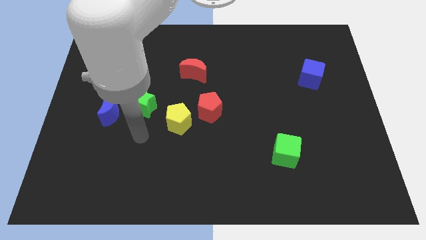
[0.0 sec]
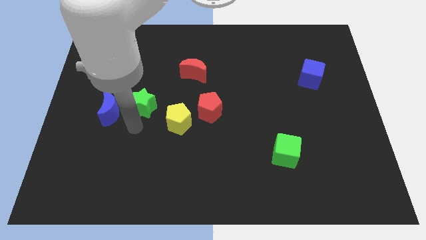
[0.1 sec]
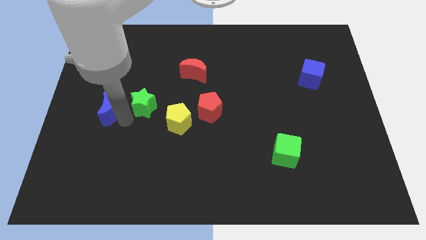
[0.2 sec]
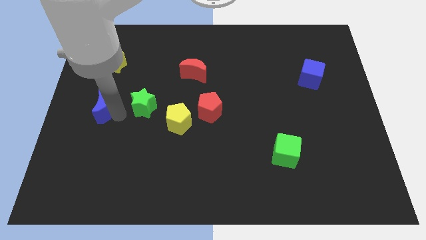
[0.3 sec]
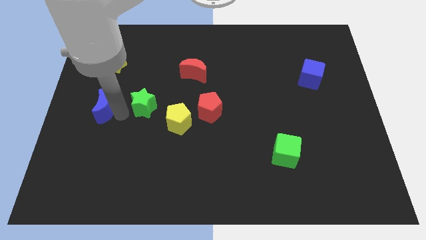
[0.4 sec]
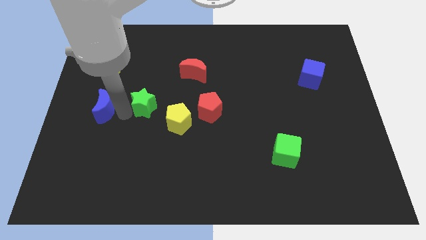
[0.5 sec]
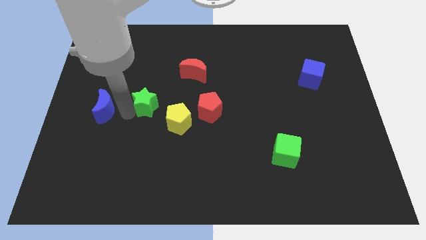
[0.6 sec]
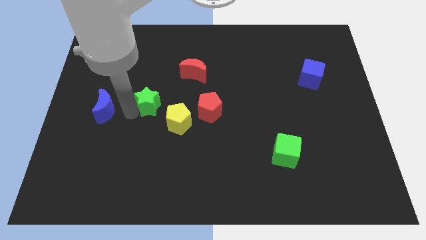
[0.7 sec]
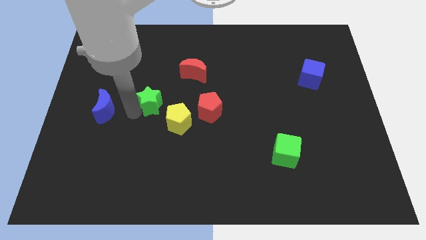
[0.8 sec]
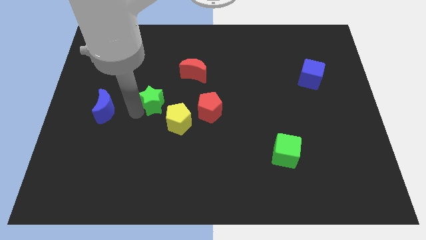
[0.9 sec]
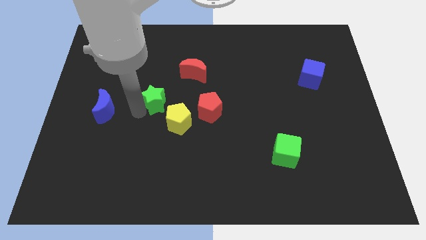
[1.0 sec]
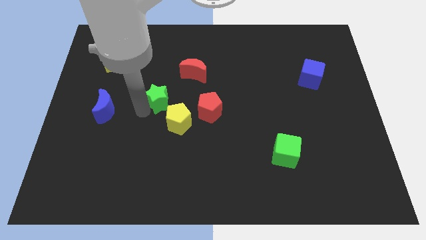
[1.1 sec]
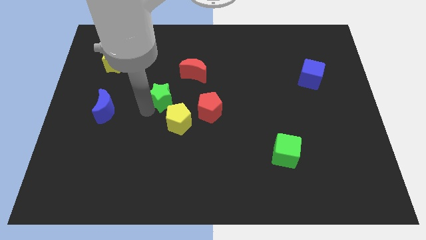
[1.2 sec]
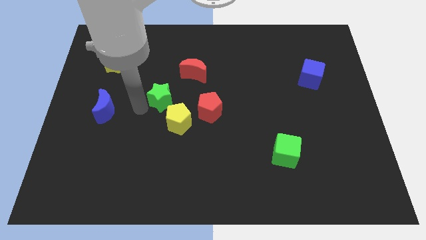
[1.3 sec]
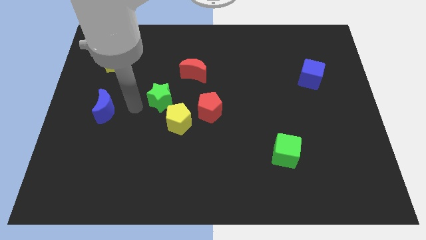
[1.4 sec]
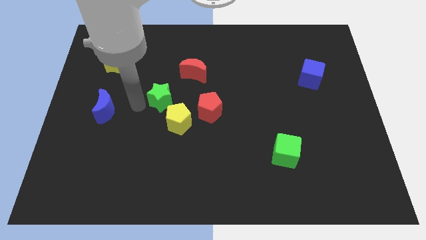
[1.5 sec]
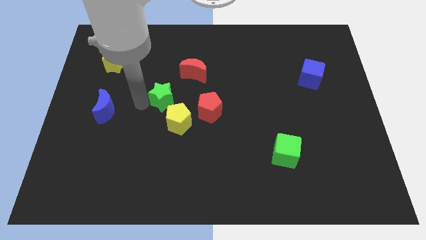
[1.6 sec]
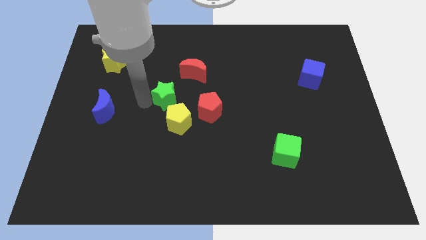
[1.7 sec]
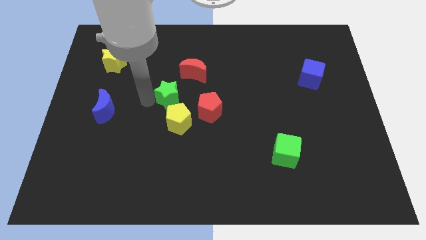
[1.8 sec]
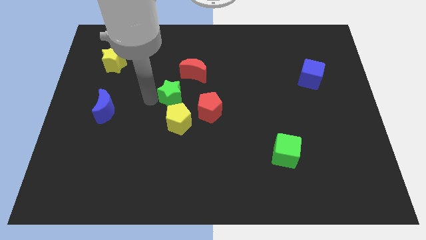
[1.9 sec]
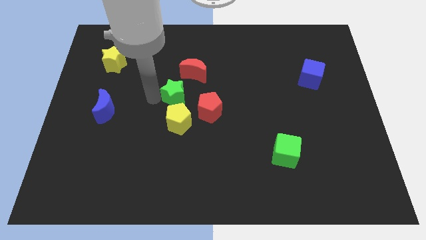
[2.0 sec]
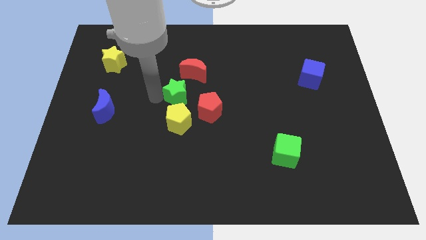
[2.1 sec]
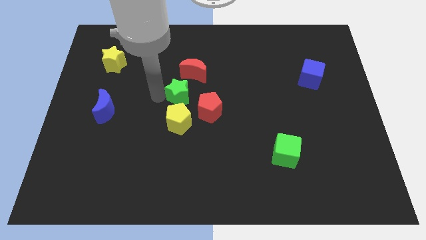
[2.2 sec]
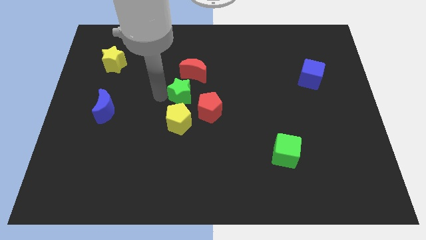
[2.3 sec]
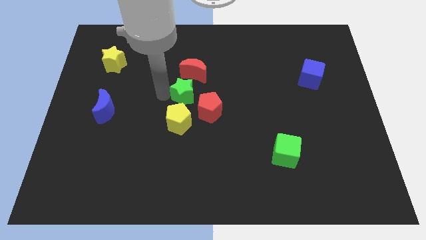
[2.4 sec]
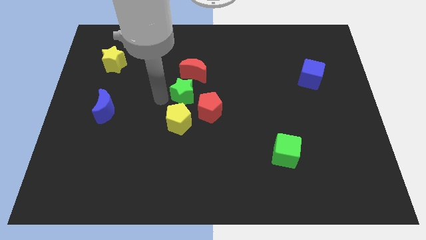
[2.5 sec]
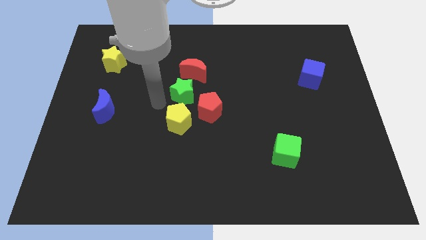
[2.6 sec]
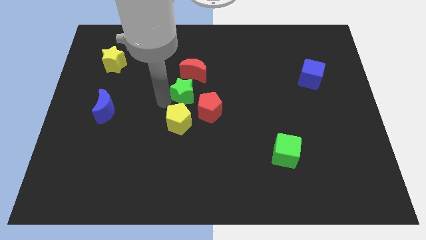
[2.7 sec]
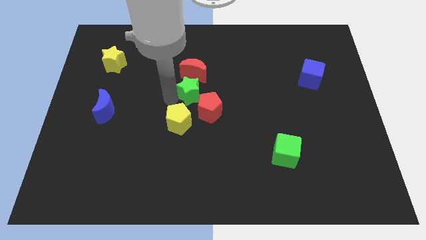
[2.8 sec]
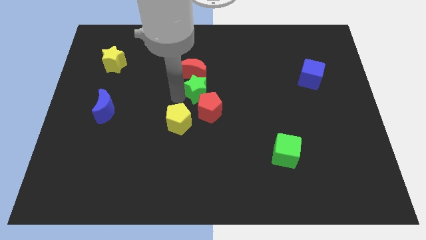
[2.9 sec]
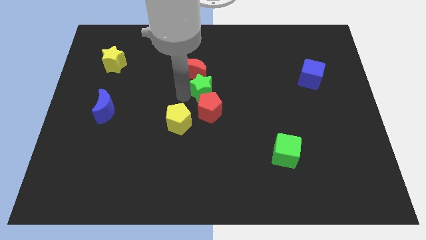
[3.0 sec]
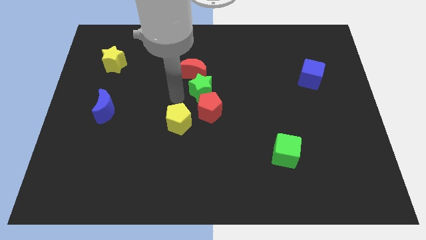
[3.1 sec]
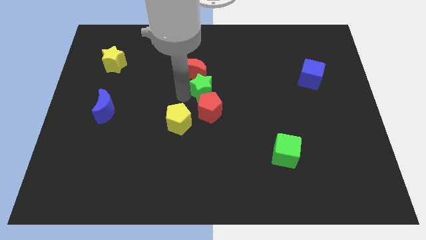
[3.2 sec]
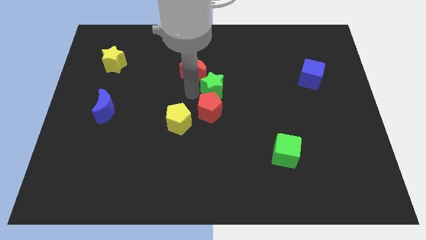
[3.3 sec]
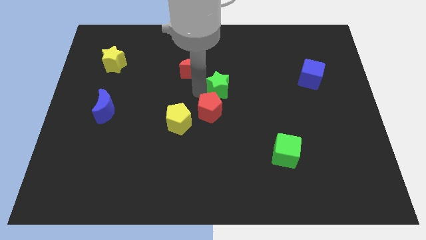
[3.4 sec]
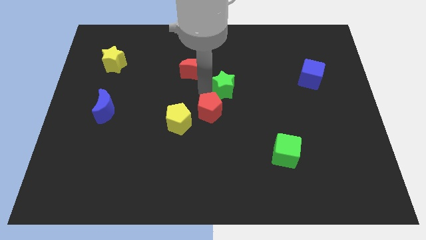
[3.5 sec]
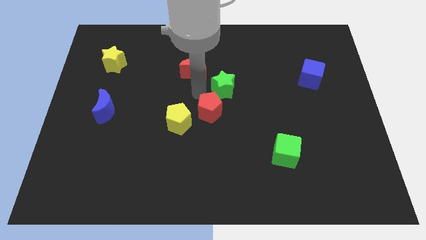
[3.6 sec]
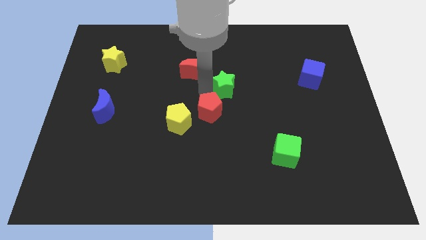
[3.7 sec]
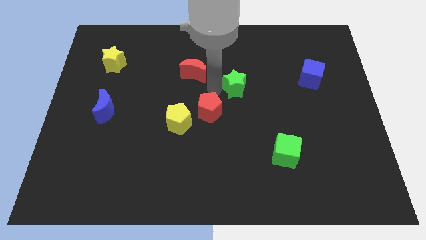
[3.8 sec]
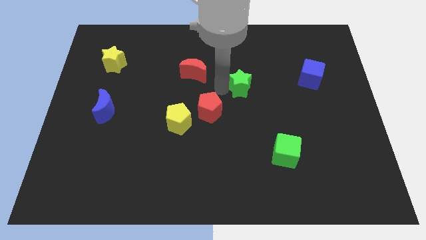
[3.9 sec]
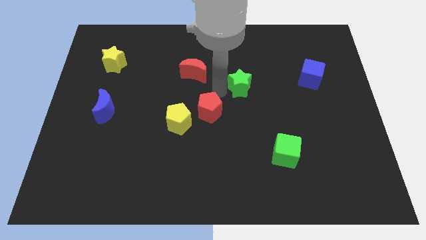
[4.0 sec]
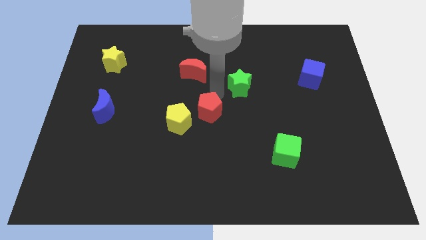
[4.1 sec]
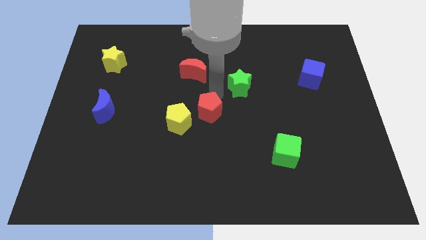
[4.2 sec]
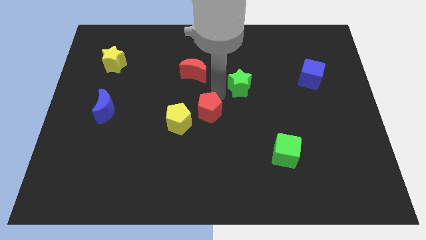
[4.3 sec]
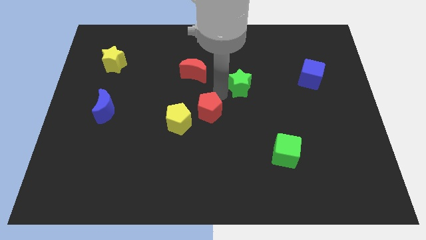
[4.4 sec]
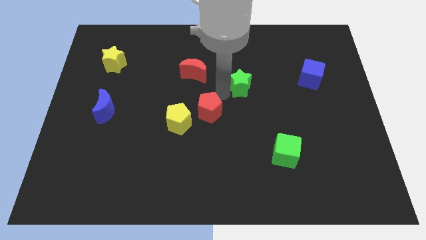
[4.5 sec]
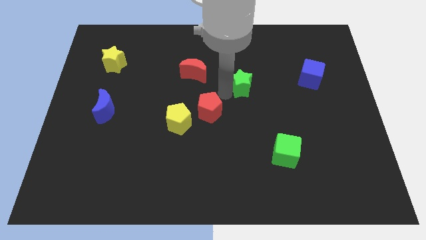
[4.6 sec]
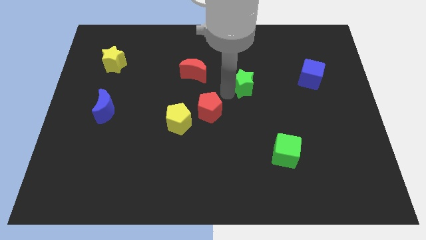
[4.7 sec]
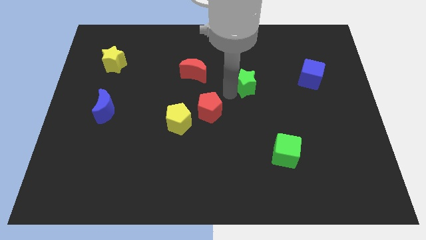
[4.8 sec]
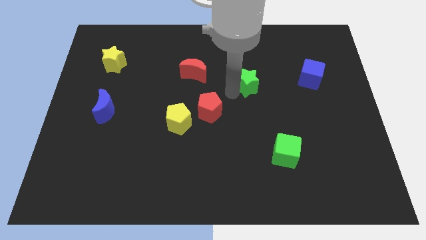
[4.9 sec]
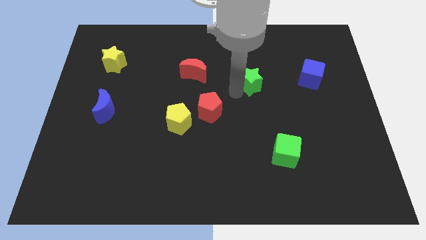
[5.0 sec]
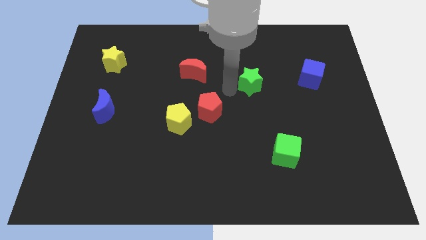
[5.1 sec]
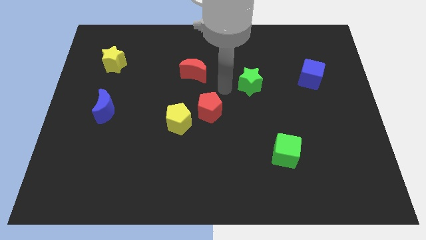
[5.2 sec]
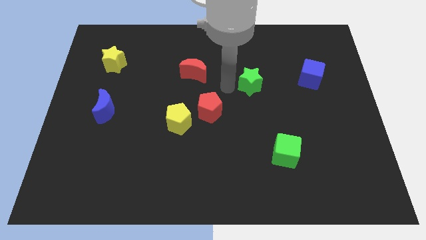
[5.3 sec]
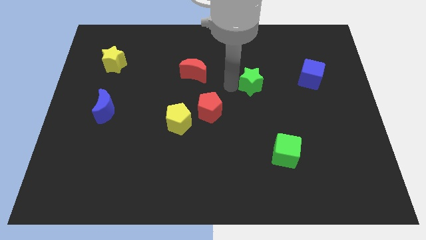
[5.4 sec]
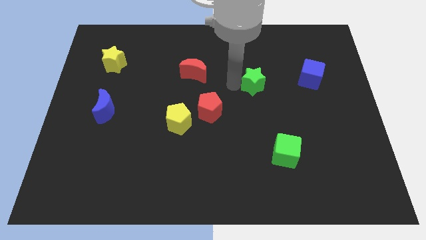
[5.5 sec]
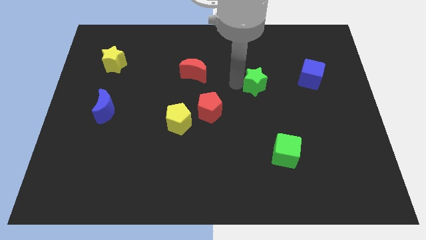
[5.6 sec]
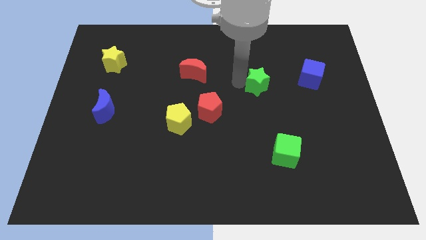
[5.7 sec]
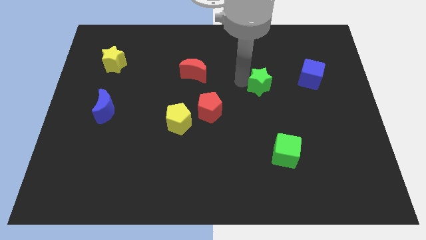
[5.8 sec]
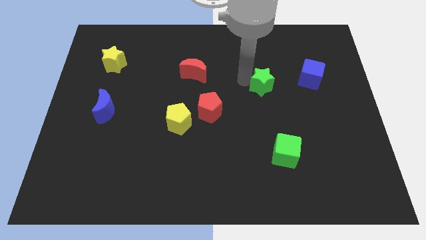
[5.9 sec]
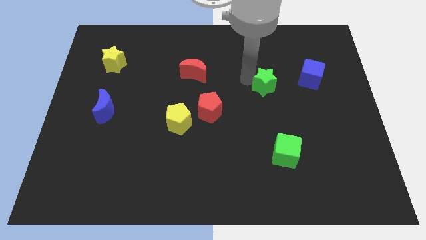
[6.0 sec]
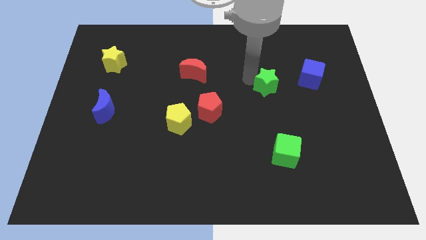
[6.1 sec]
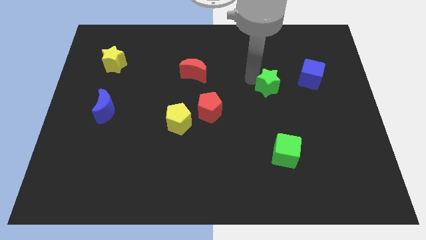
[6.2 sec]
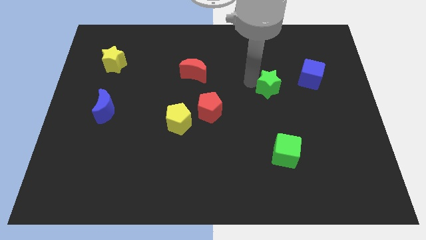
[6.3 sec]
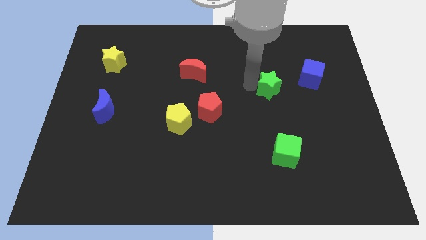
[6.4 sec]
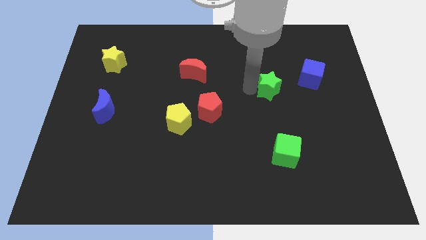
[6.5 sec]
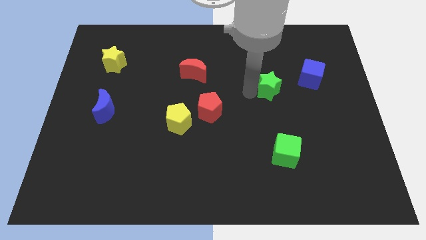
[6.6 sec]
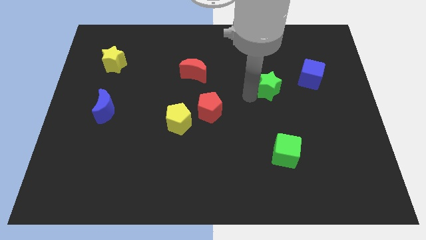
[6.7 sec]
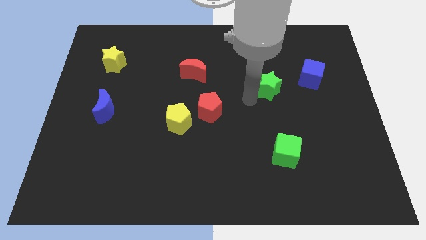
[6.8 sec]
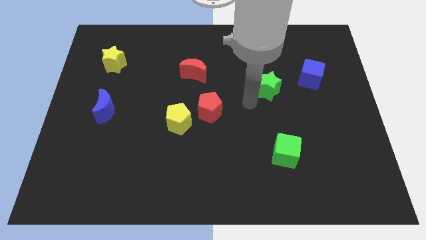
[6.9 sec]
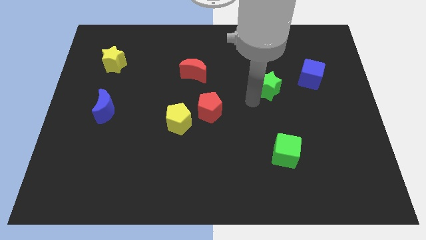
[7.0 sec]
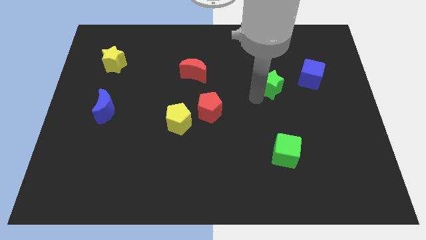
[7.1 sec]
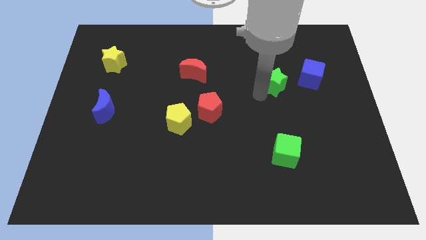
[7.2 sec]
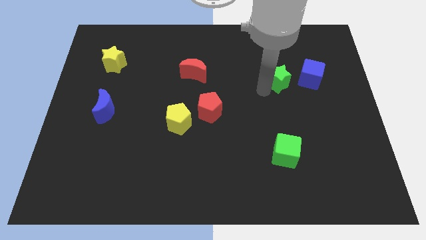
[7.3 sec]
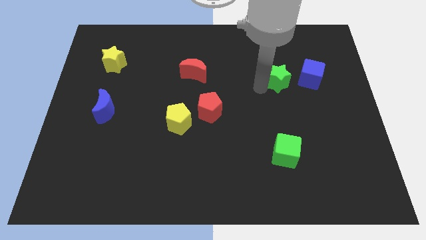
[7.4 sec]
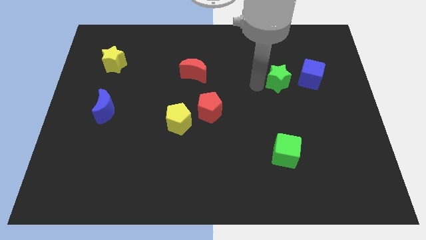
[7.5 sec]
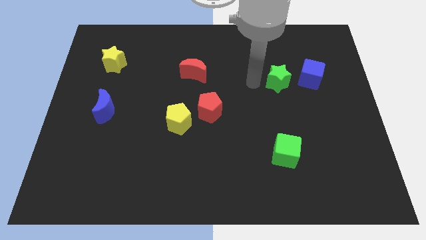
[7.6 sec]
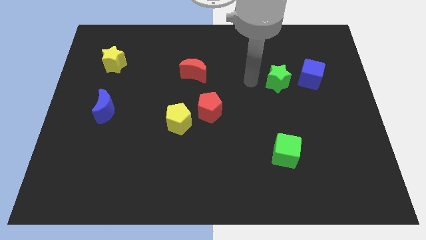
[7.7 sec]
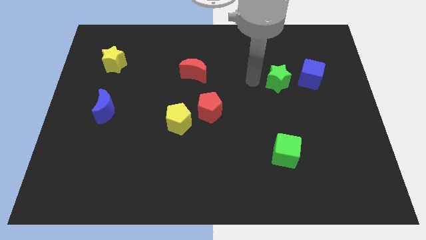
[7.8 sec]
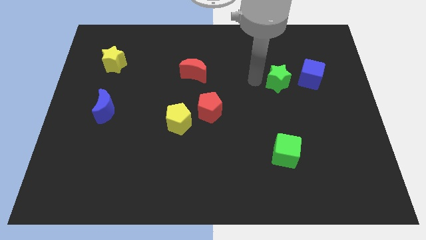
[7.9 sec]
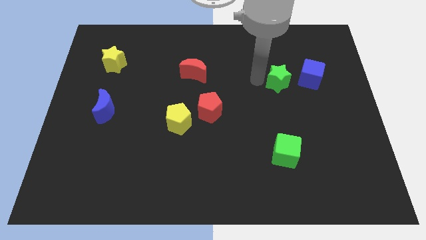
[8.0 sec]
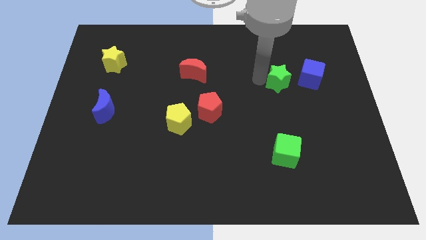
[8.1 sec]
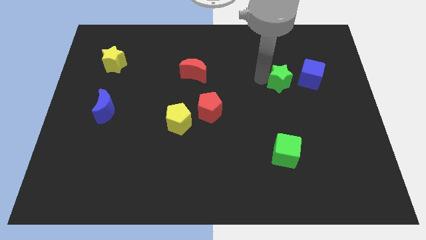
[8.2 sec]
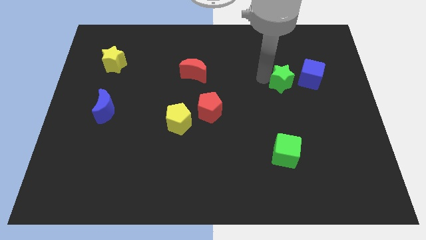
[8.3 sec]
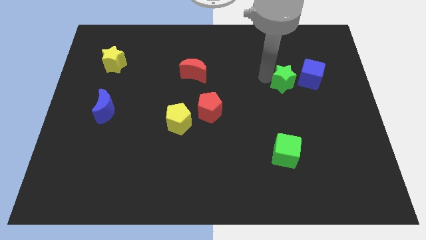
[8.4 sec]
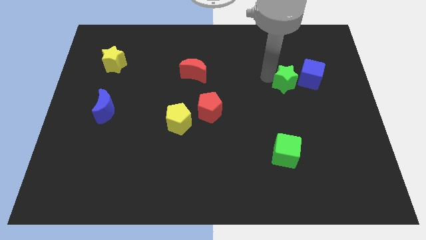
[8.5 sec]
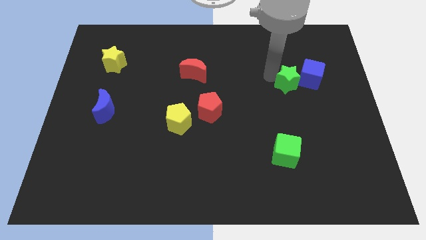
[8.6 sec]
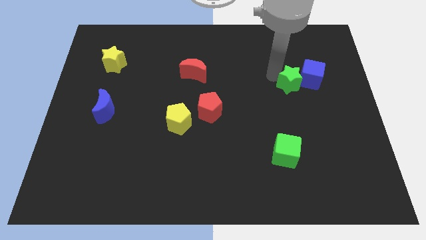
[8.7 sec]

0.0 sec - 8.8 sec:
push the green star towards the blue cube
